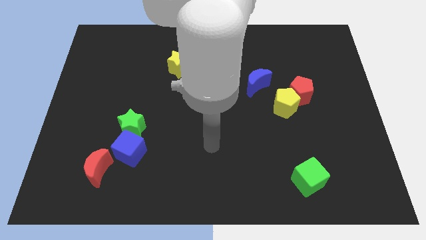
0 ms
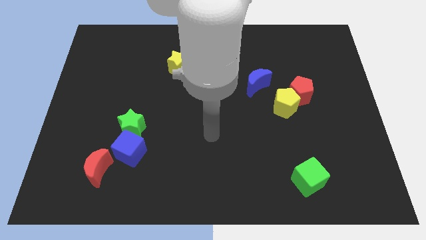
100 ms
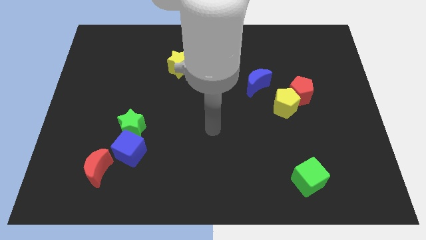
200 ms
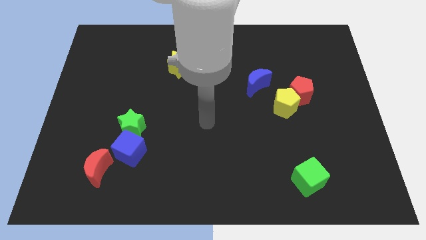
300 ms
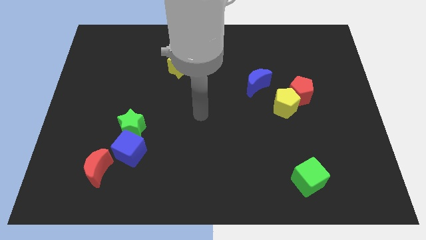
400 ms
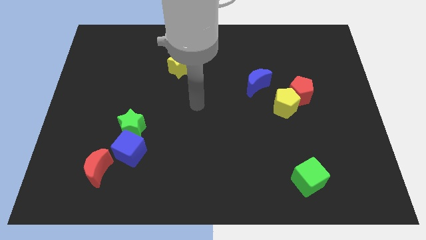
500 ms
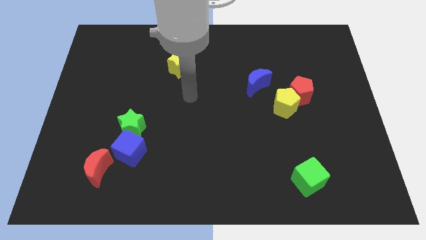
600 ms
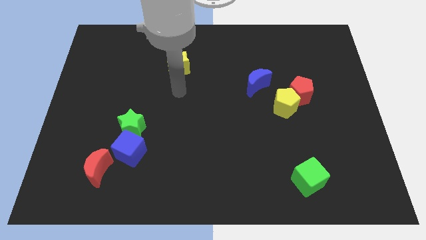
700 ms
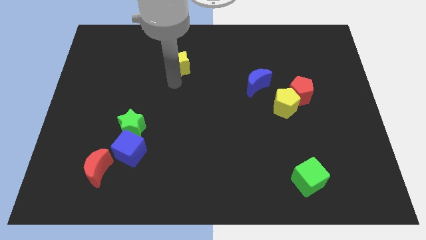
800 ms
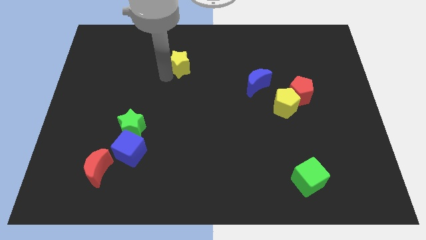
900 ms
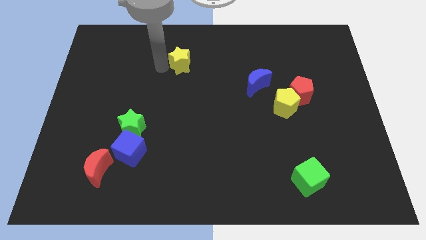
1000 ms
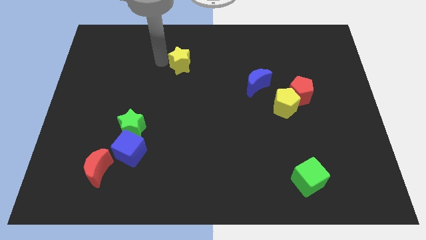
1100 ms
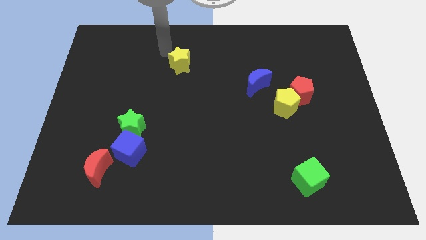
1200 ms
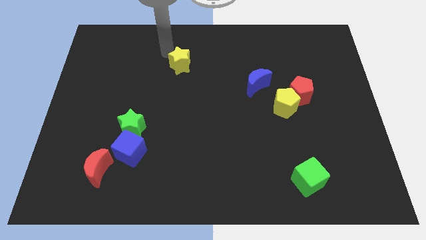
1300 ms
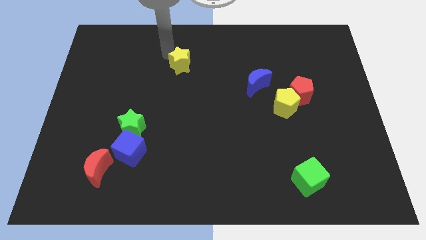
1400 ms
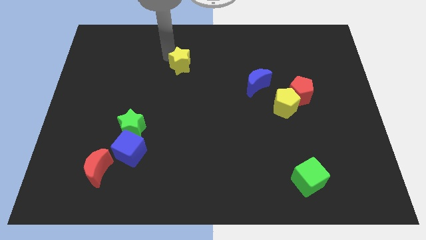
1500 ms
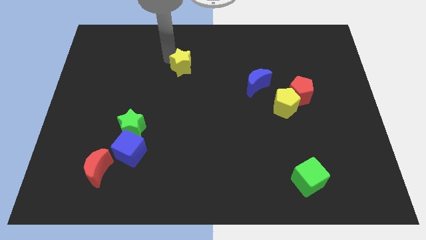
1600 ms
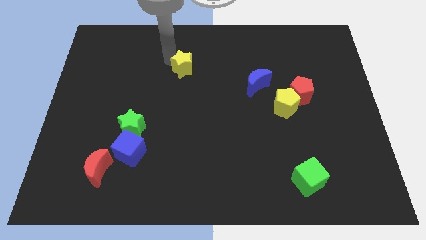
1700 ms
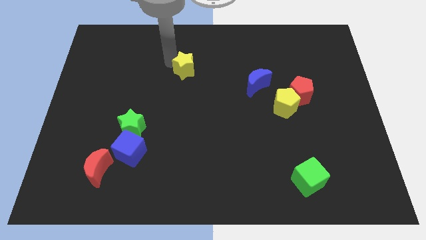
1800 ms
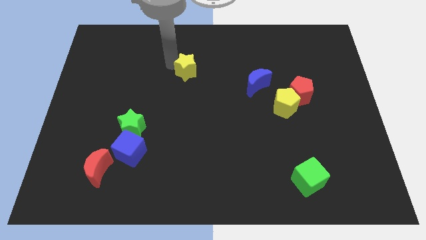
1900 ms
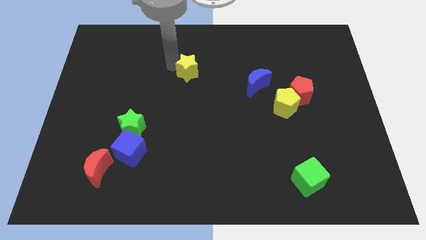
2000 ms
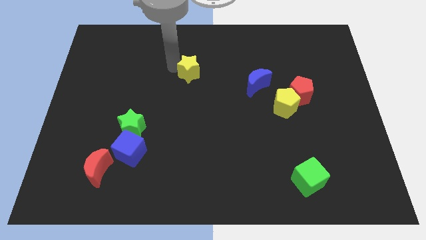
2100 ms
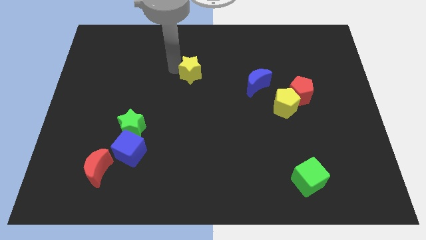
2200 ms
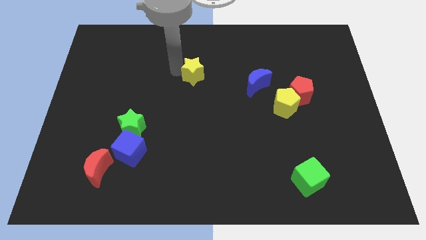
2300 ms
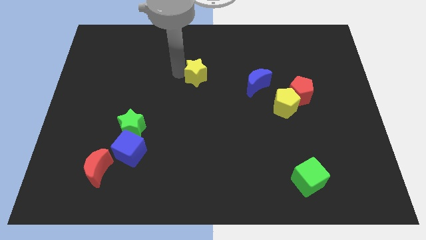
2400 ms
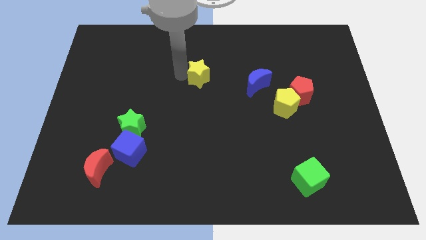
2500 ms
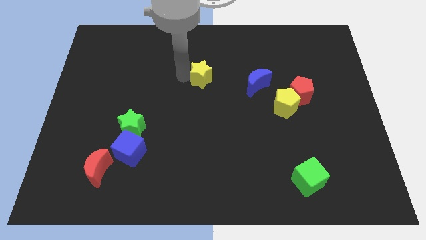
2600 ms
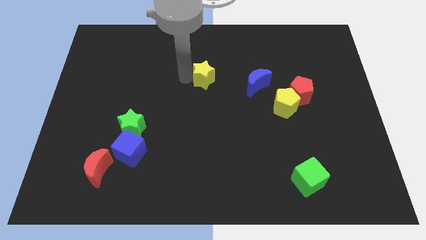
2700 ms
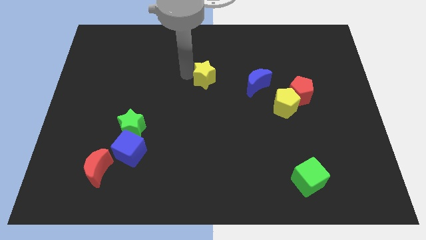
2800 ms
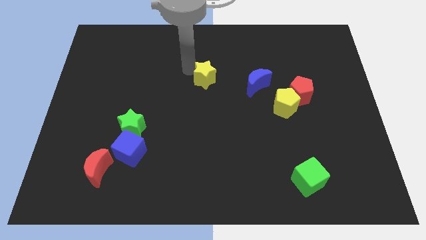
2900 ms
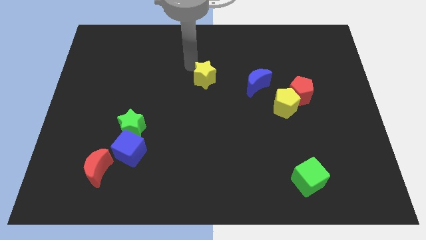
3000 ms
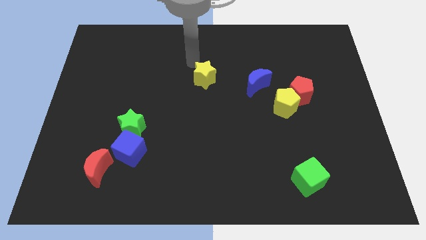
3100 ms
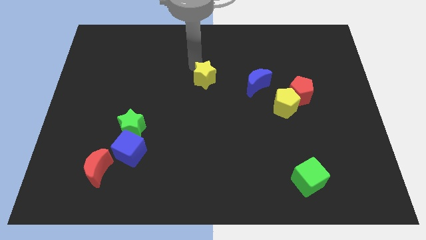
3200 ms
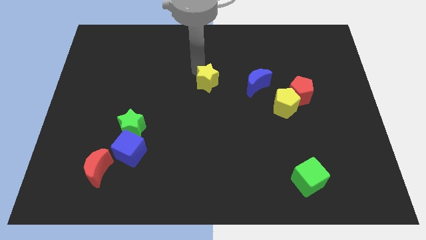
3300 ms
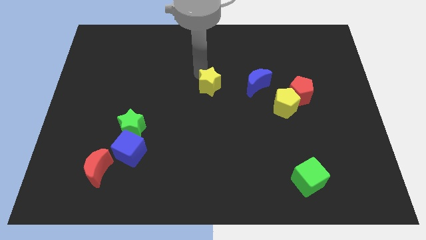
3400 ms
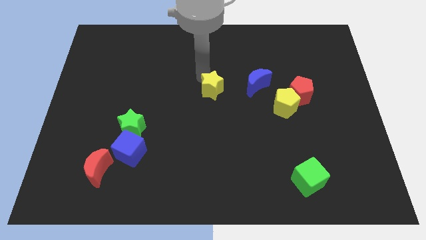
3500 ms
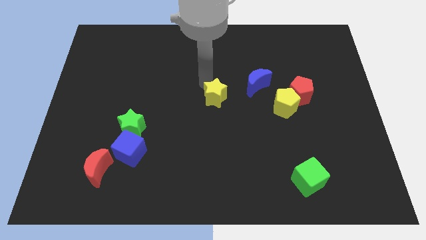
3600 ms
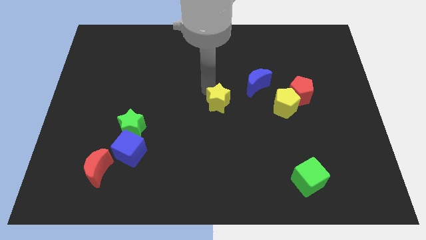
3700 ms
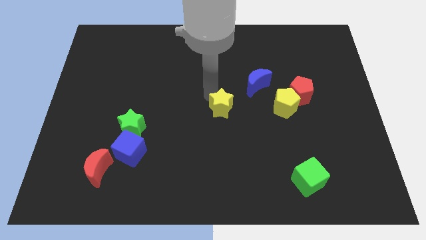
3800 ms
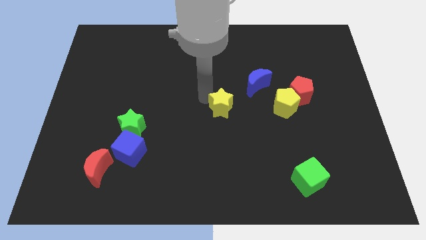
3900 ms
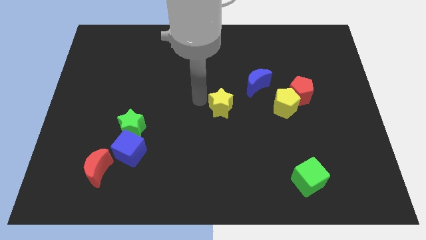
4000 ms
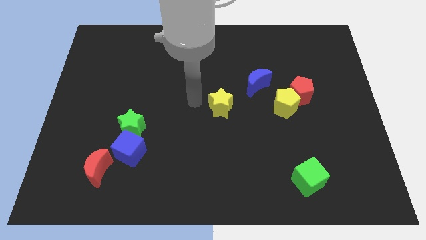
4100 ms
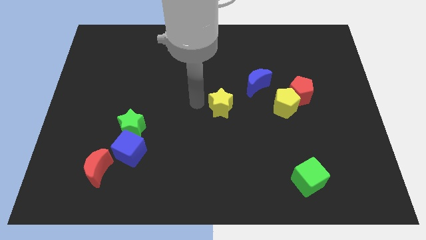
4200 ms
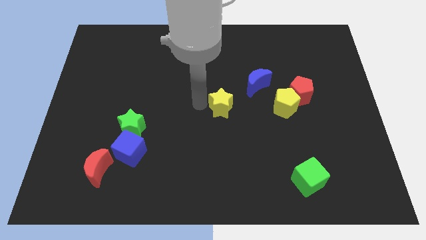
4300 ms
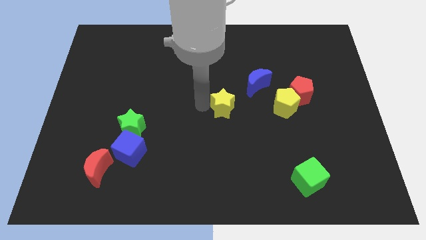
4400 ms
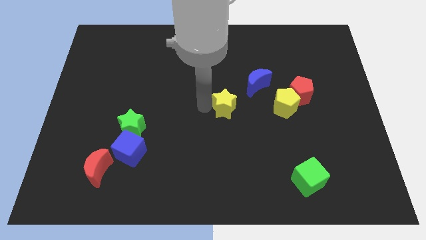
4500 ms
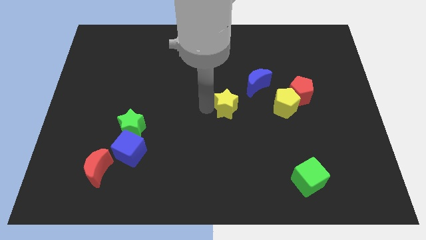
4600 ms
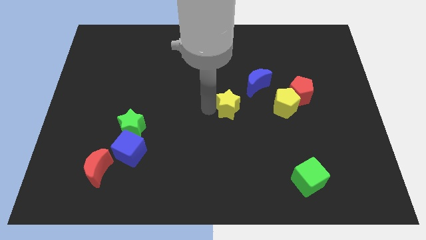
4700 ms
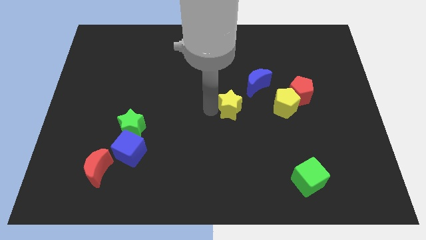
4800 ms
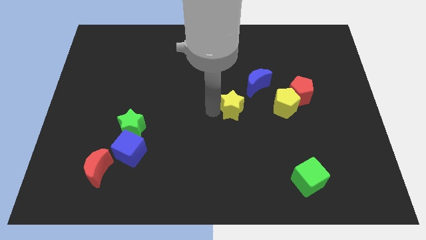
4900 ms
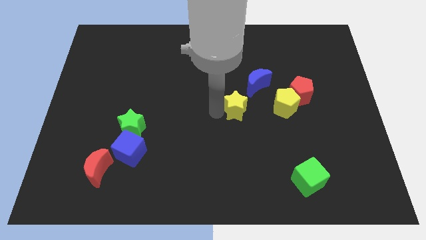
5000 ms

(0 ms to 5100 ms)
slide the yellow star down and to the right

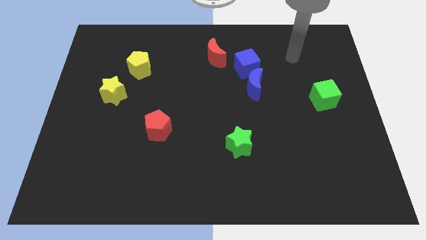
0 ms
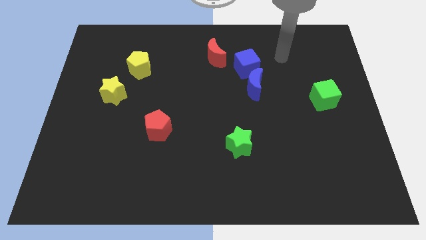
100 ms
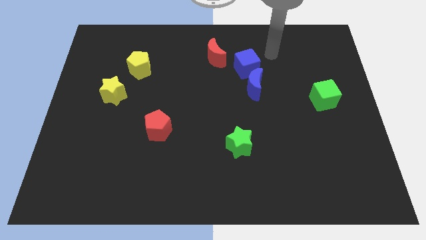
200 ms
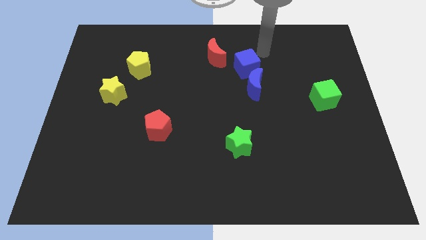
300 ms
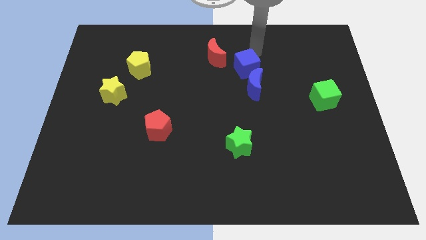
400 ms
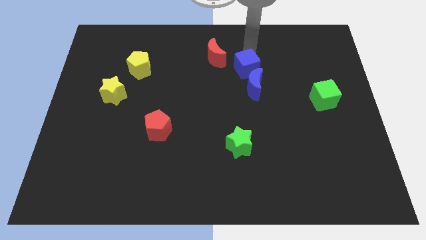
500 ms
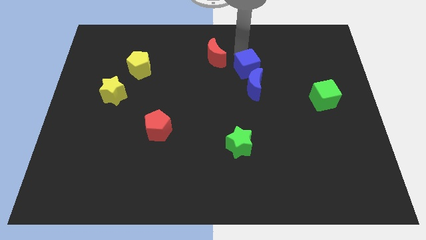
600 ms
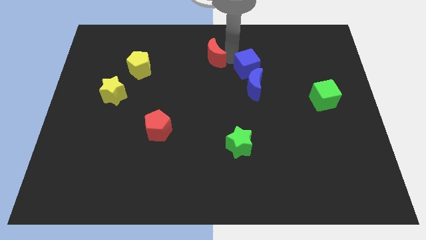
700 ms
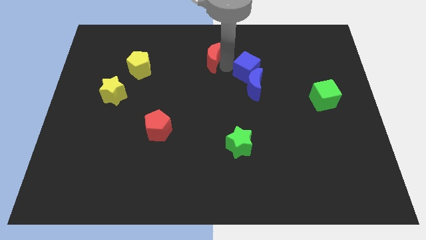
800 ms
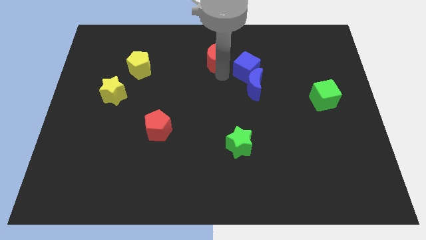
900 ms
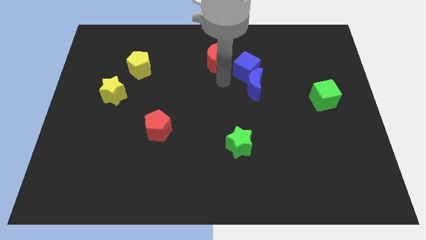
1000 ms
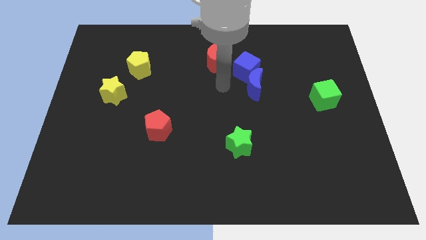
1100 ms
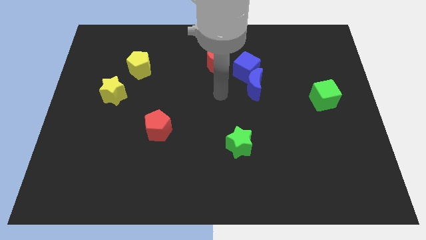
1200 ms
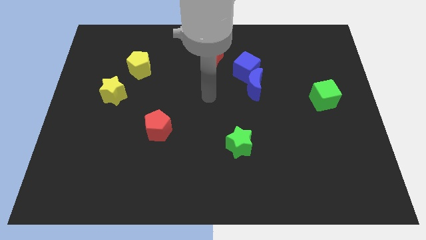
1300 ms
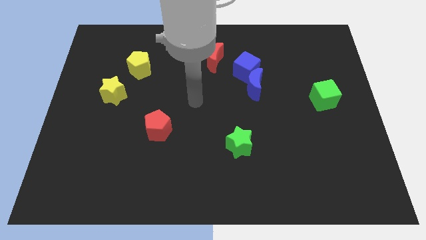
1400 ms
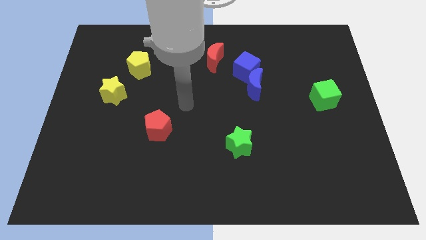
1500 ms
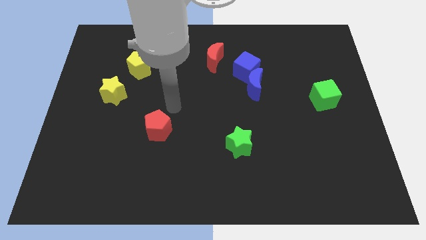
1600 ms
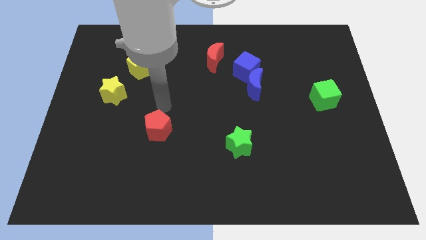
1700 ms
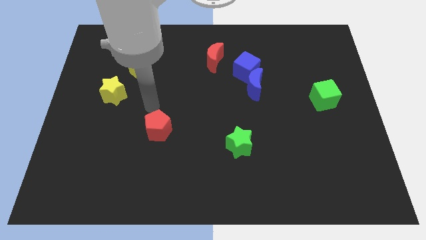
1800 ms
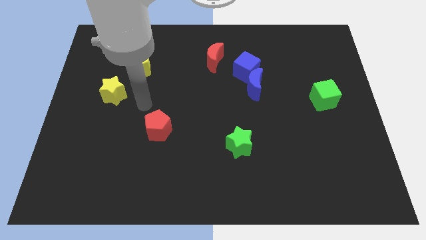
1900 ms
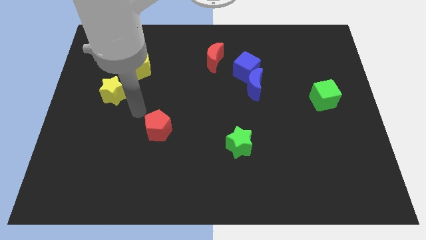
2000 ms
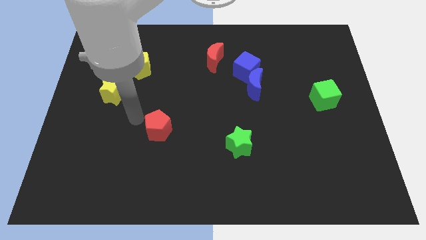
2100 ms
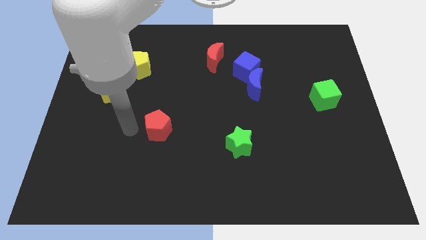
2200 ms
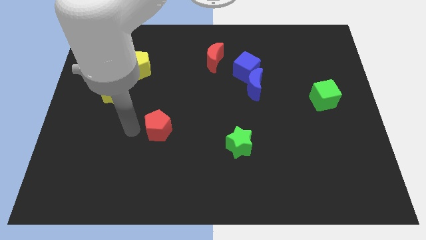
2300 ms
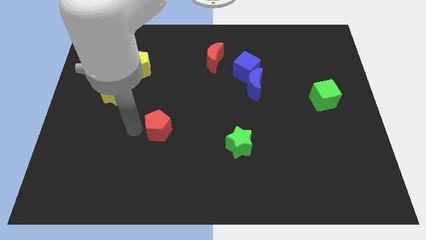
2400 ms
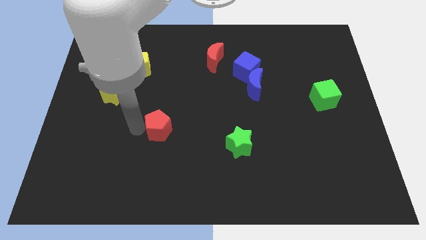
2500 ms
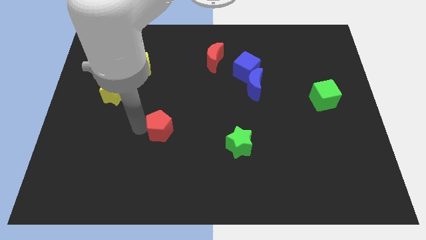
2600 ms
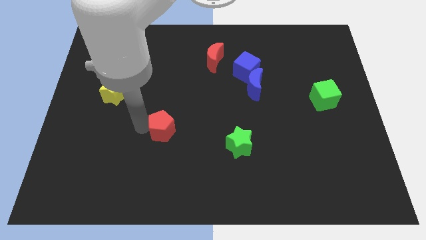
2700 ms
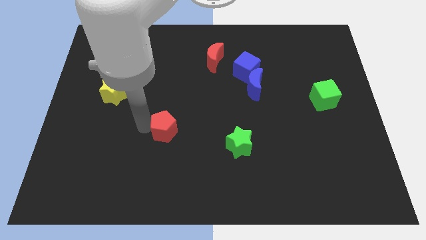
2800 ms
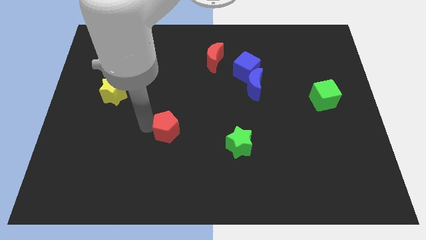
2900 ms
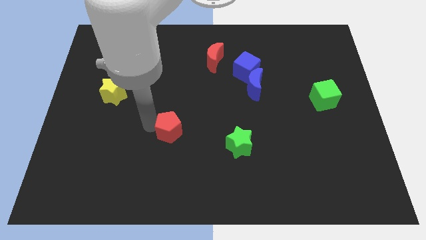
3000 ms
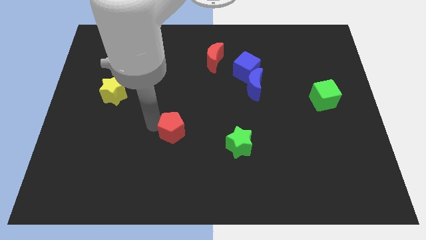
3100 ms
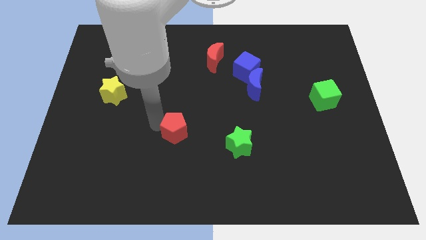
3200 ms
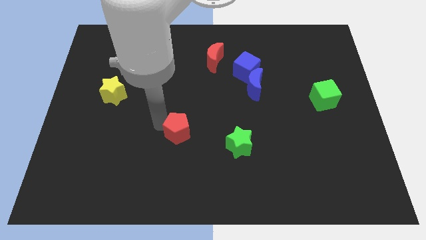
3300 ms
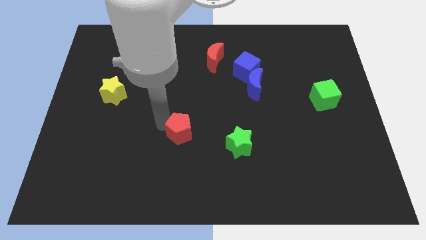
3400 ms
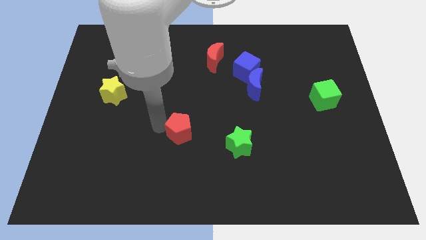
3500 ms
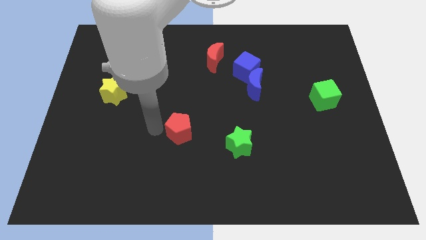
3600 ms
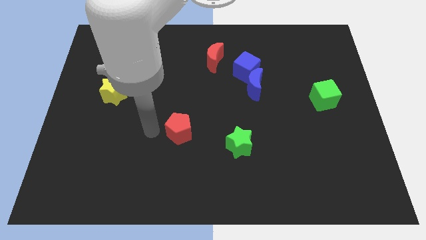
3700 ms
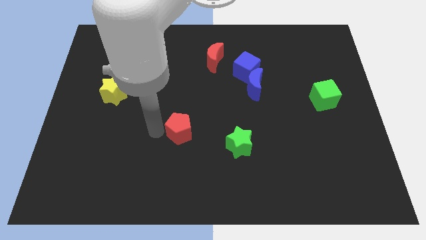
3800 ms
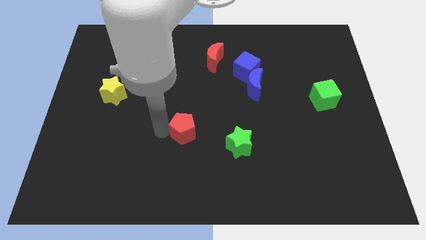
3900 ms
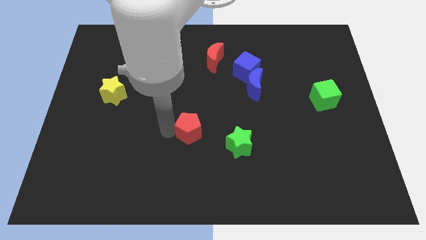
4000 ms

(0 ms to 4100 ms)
push the red pentagon to the right a little bit
